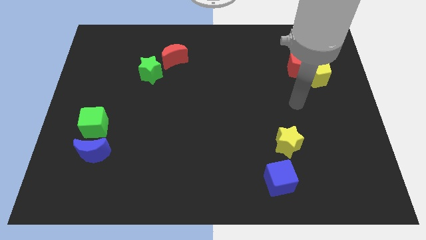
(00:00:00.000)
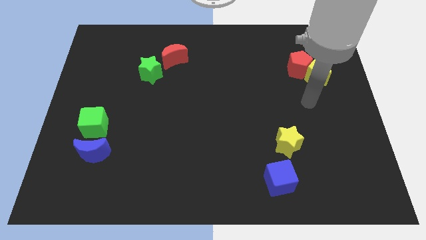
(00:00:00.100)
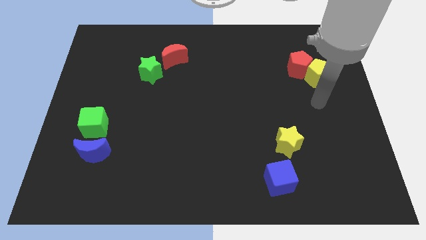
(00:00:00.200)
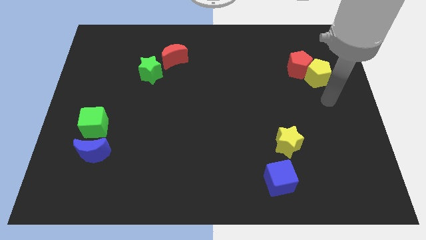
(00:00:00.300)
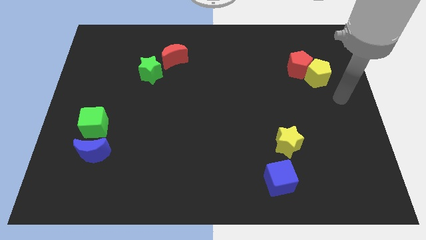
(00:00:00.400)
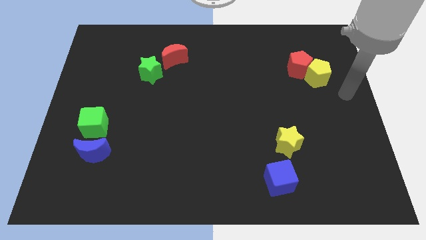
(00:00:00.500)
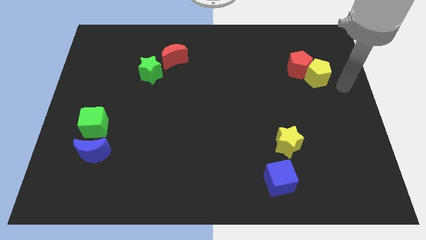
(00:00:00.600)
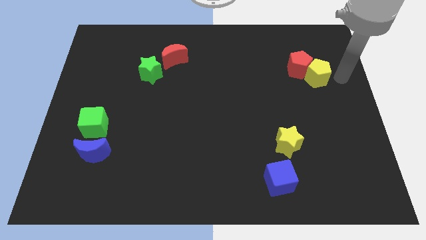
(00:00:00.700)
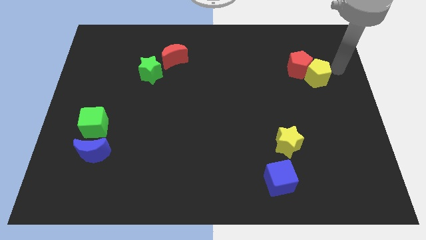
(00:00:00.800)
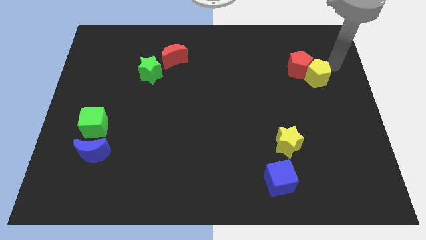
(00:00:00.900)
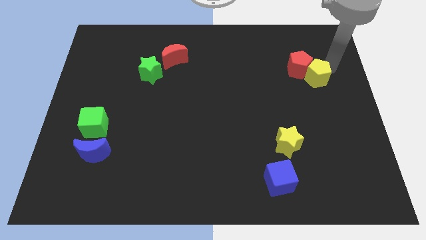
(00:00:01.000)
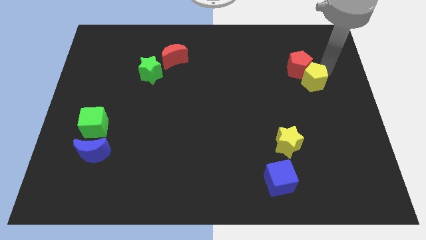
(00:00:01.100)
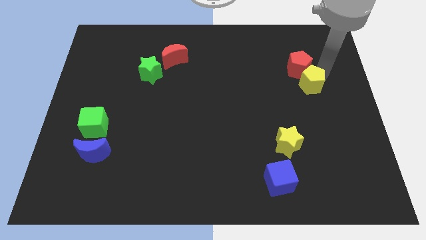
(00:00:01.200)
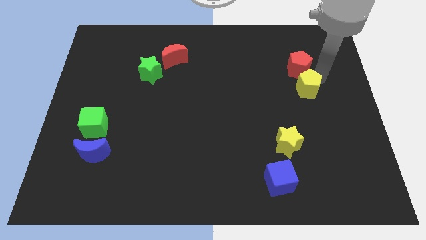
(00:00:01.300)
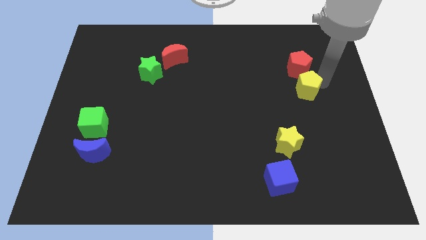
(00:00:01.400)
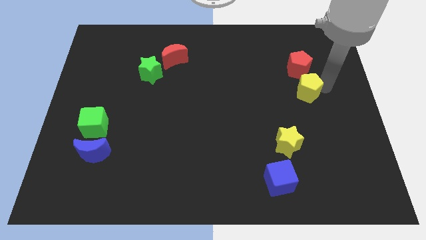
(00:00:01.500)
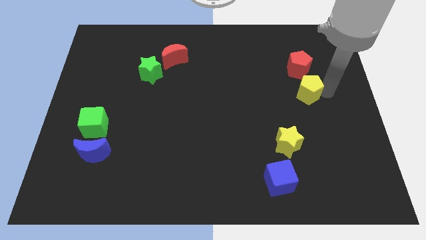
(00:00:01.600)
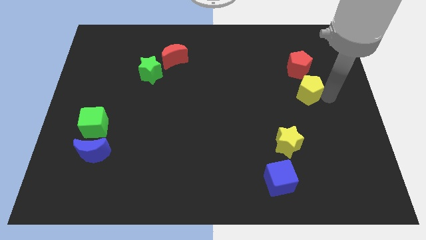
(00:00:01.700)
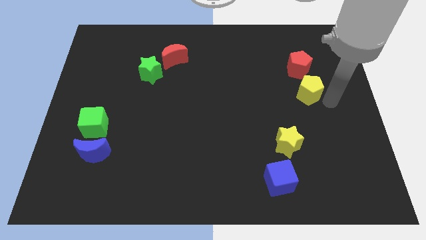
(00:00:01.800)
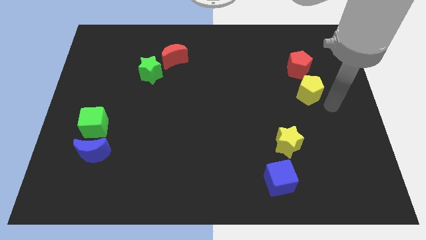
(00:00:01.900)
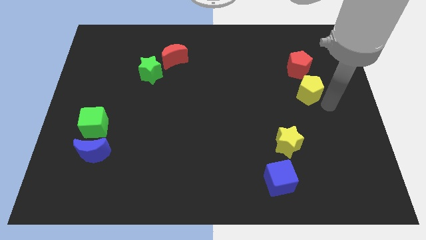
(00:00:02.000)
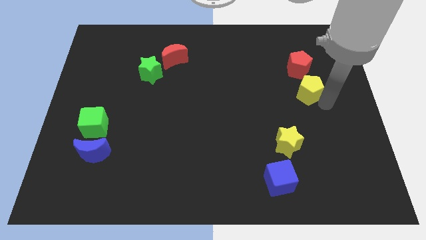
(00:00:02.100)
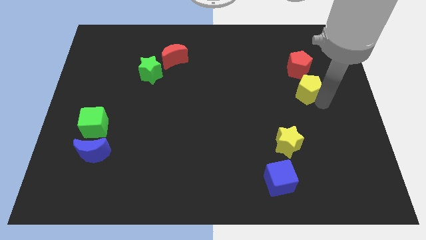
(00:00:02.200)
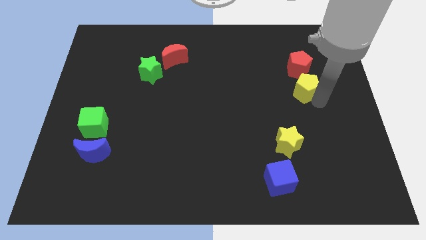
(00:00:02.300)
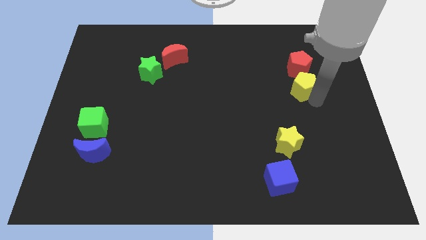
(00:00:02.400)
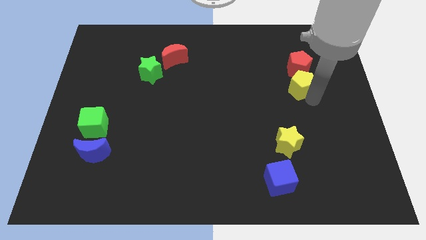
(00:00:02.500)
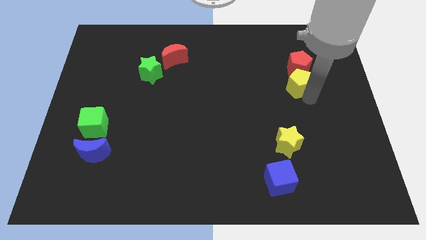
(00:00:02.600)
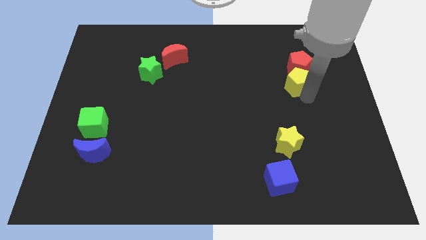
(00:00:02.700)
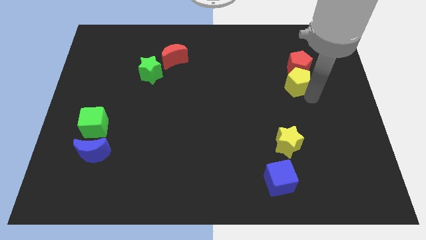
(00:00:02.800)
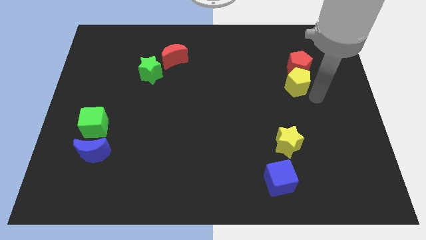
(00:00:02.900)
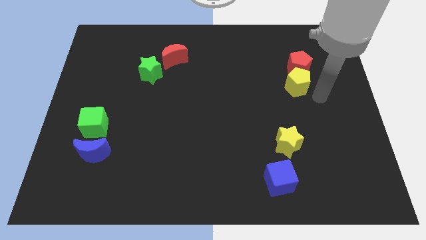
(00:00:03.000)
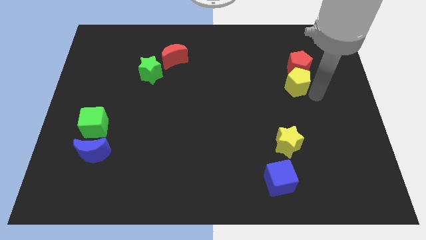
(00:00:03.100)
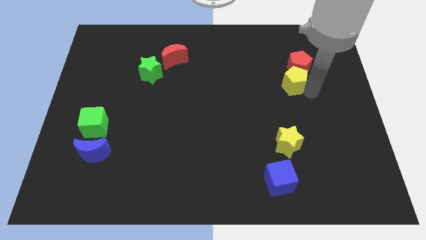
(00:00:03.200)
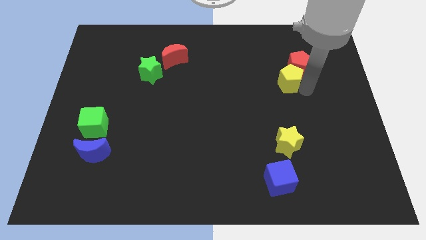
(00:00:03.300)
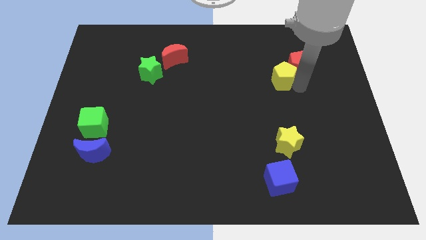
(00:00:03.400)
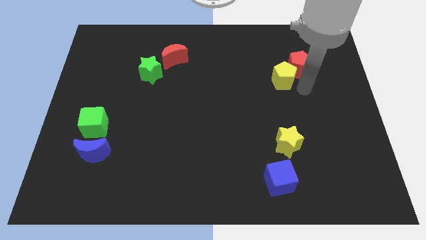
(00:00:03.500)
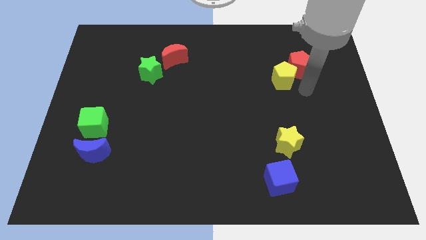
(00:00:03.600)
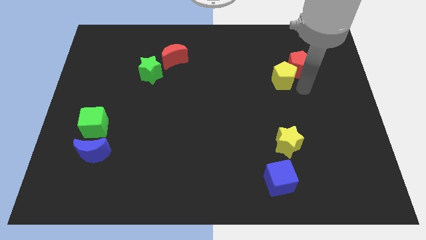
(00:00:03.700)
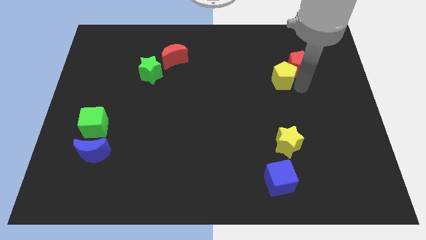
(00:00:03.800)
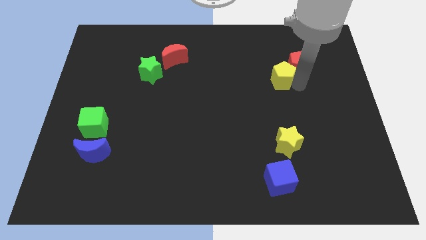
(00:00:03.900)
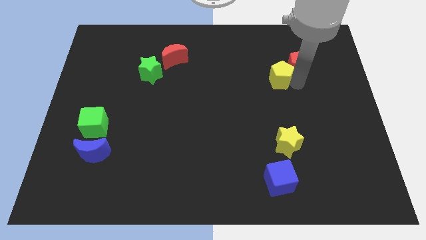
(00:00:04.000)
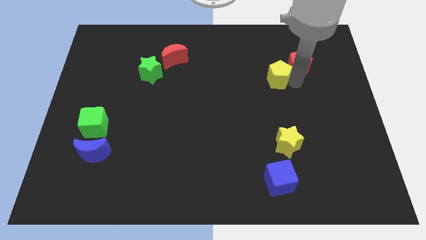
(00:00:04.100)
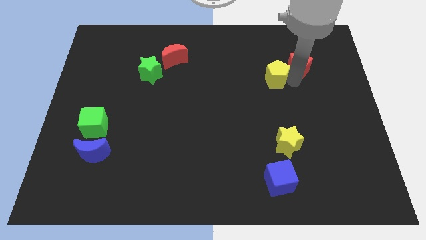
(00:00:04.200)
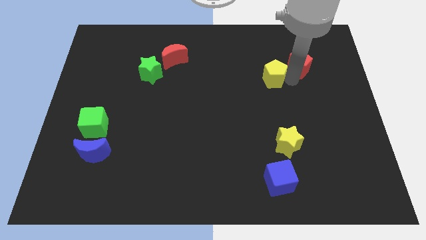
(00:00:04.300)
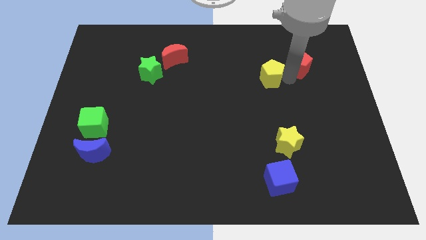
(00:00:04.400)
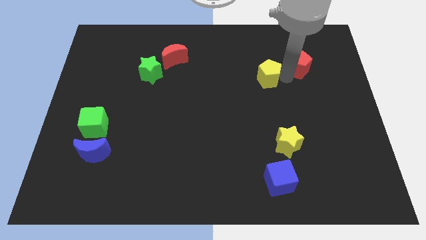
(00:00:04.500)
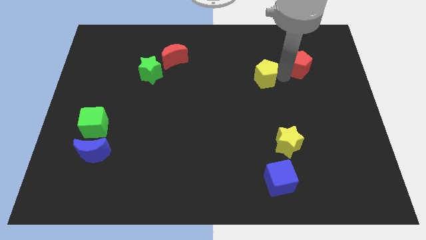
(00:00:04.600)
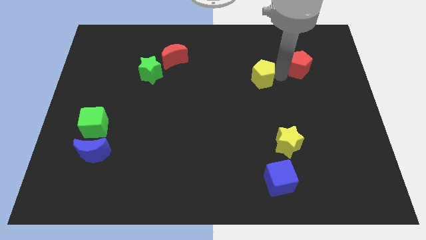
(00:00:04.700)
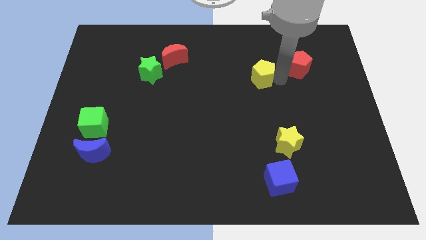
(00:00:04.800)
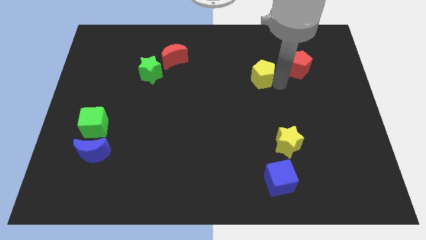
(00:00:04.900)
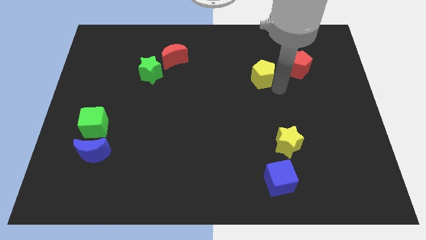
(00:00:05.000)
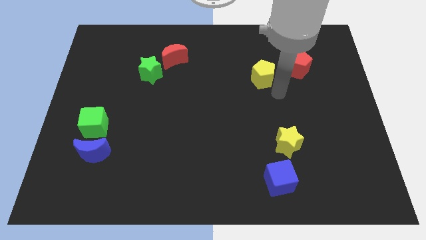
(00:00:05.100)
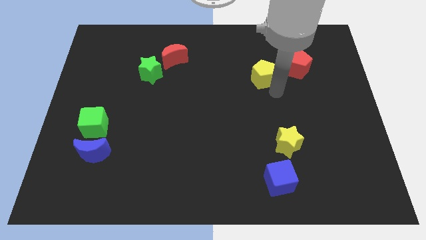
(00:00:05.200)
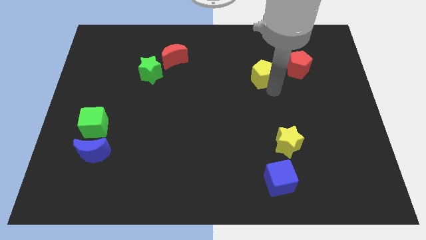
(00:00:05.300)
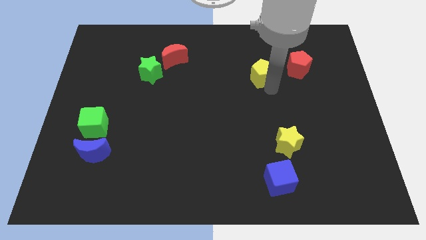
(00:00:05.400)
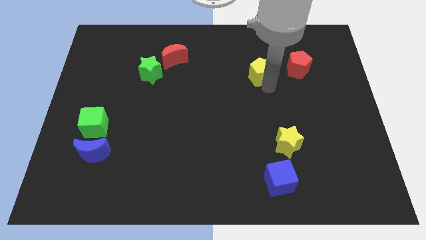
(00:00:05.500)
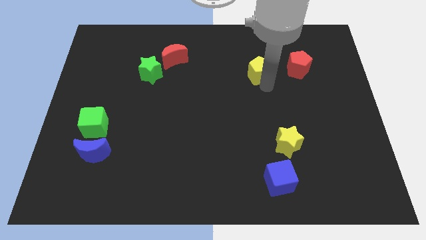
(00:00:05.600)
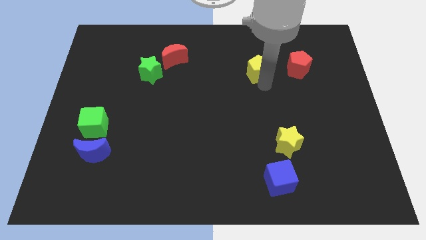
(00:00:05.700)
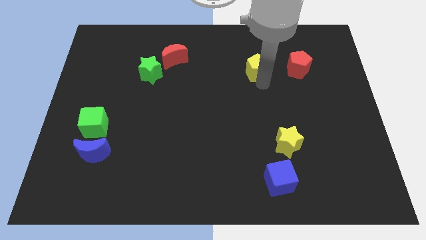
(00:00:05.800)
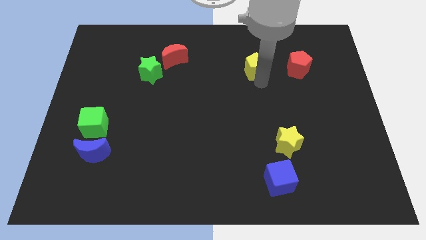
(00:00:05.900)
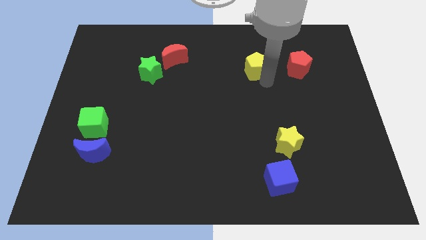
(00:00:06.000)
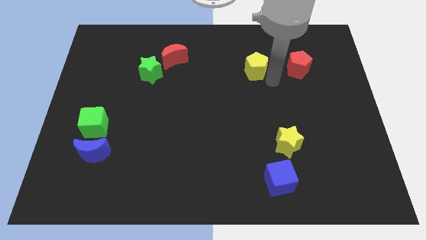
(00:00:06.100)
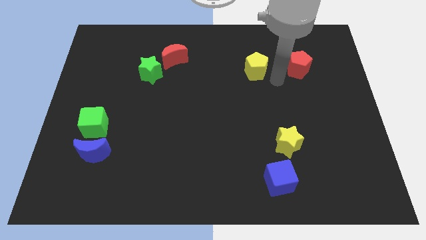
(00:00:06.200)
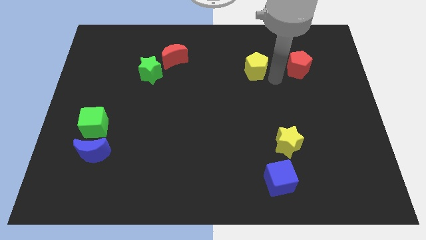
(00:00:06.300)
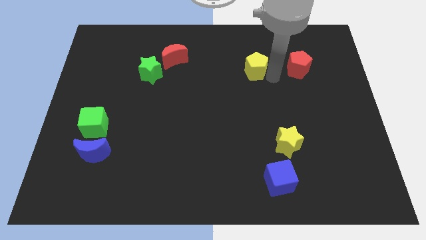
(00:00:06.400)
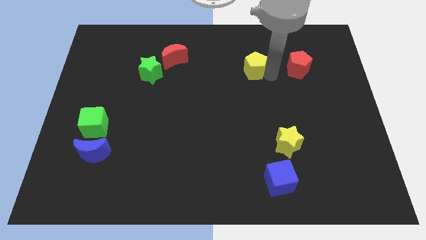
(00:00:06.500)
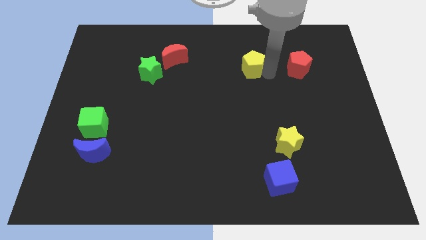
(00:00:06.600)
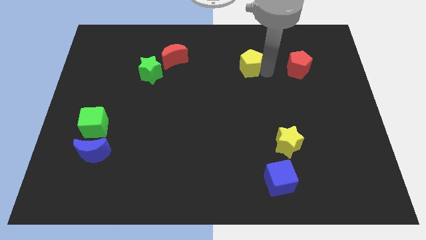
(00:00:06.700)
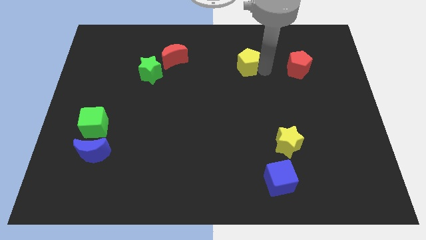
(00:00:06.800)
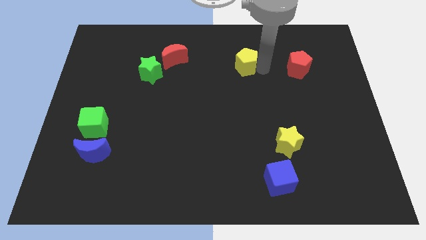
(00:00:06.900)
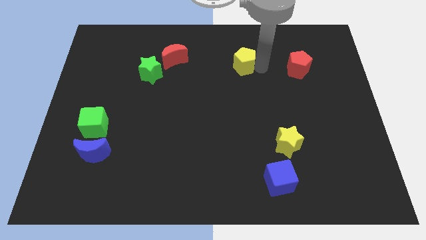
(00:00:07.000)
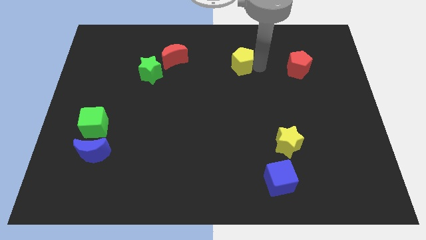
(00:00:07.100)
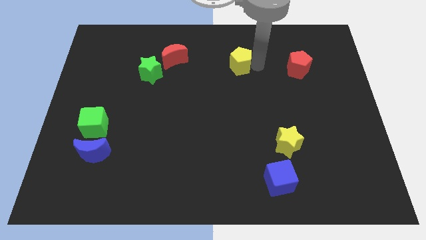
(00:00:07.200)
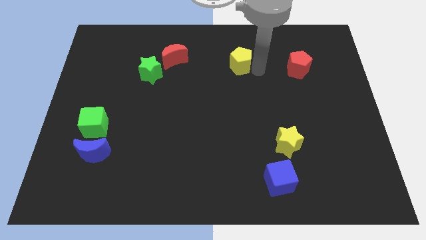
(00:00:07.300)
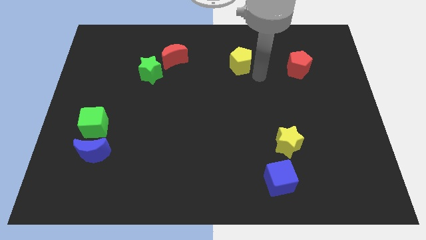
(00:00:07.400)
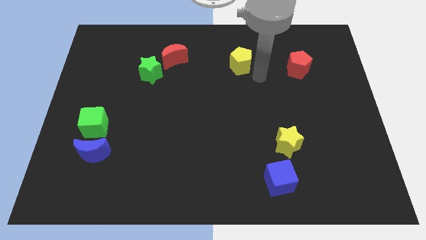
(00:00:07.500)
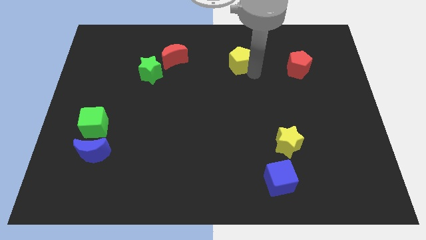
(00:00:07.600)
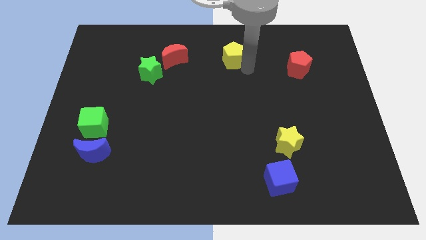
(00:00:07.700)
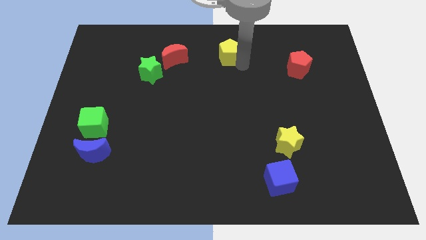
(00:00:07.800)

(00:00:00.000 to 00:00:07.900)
push the yellow pentagon to the towards your base
